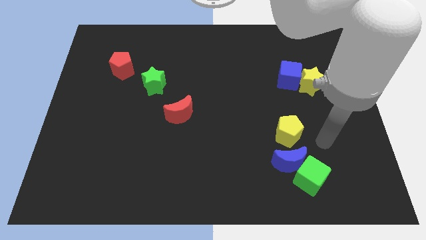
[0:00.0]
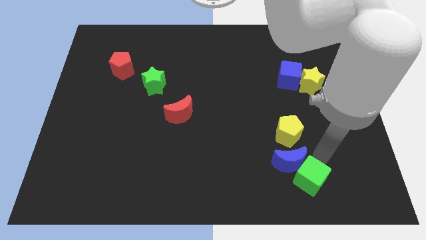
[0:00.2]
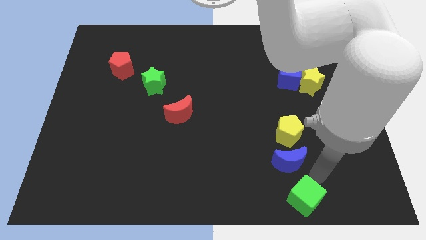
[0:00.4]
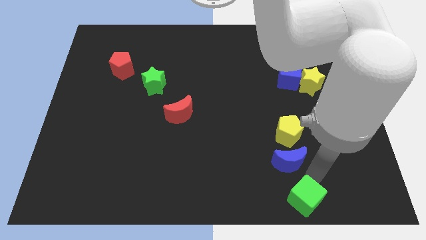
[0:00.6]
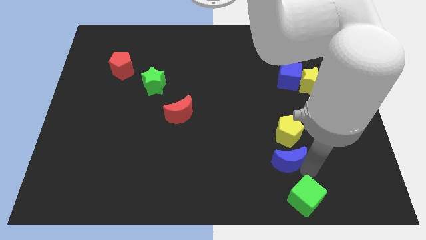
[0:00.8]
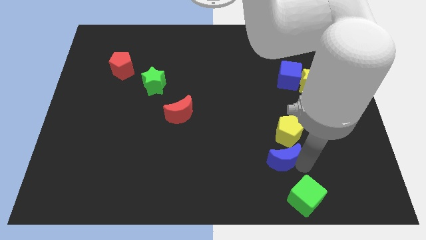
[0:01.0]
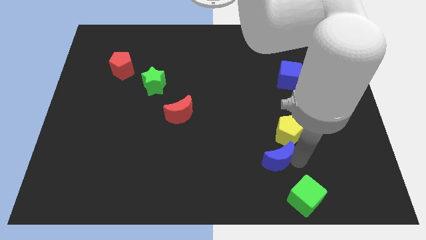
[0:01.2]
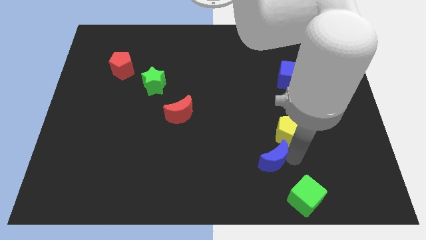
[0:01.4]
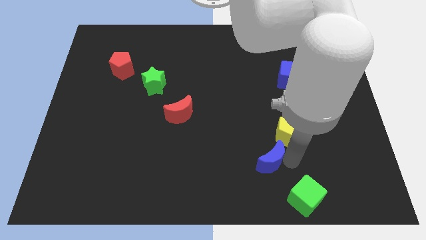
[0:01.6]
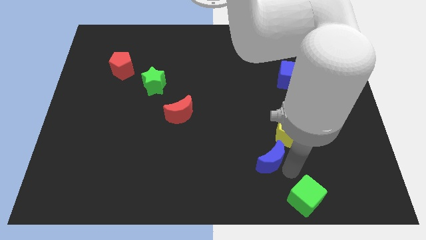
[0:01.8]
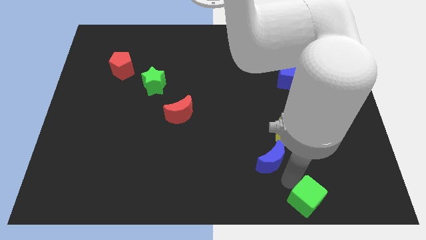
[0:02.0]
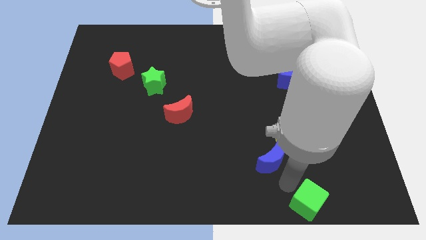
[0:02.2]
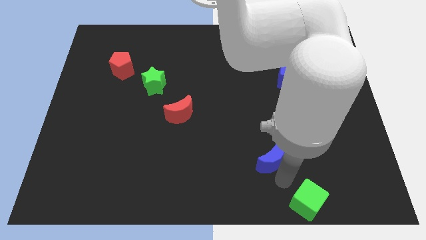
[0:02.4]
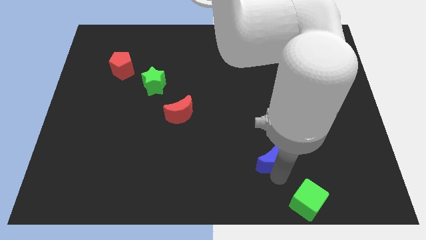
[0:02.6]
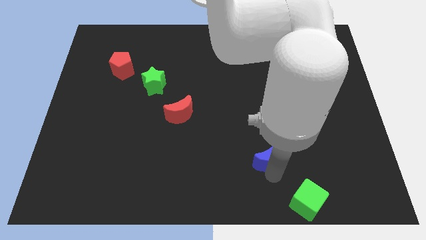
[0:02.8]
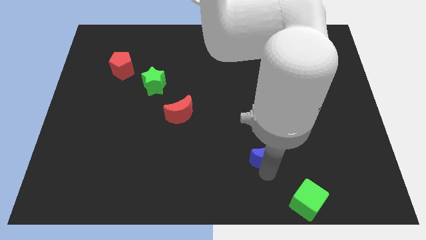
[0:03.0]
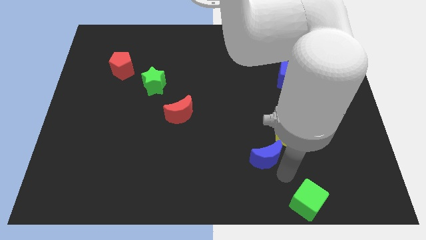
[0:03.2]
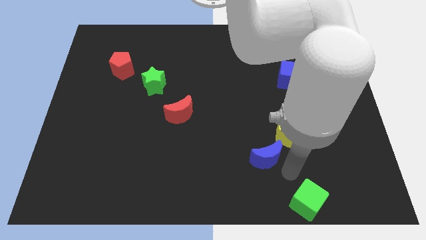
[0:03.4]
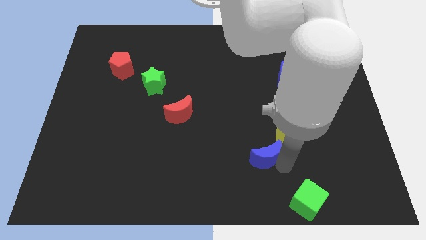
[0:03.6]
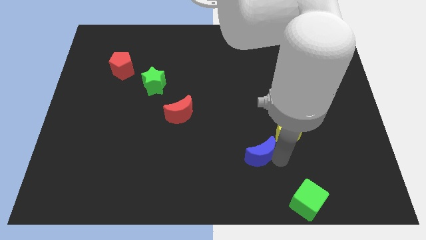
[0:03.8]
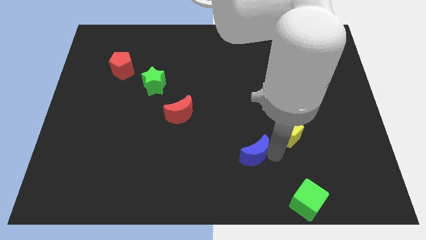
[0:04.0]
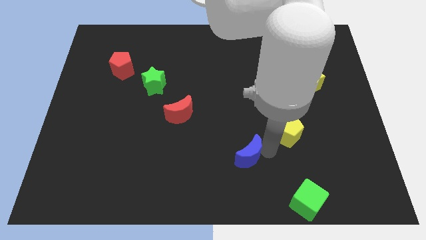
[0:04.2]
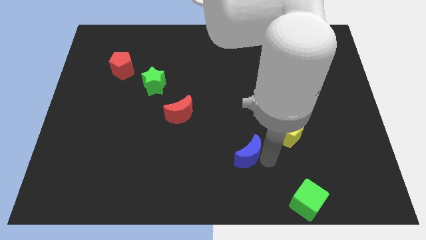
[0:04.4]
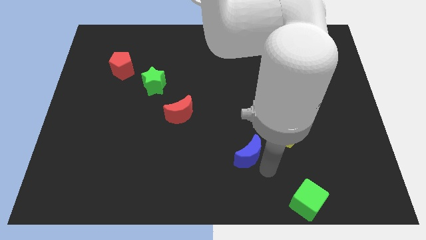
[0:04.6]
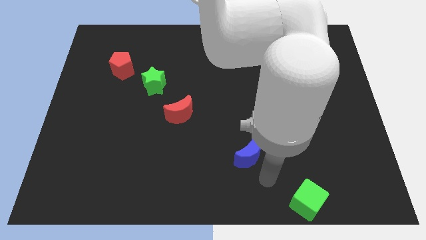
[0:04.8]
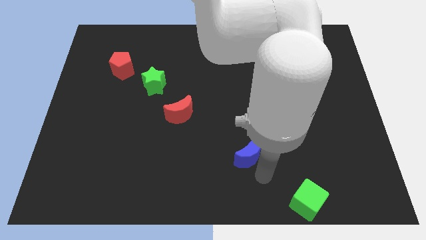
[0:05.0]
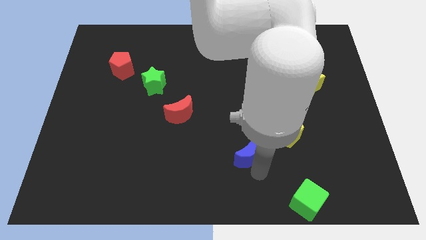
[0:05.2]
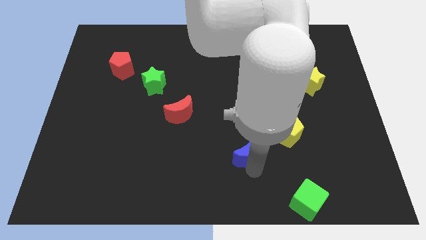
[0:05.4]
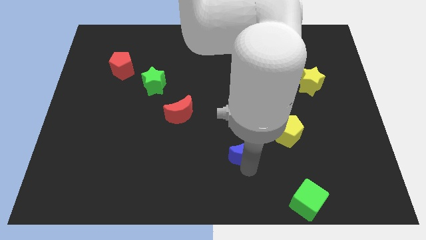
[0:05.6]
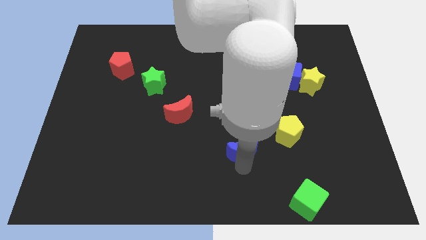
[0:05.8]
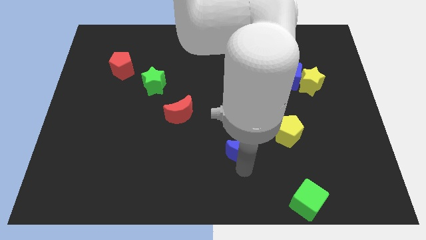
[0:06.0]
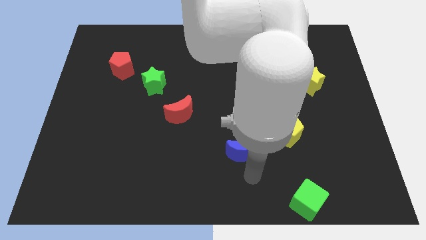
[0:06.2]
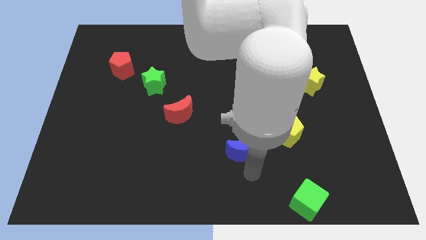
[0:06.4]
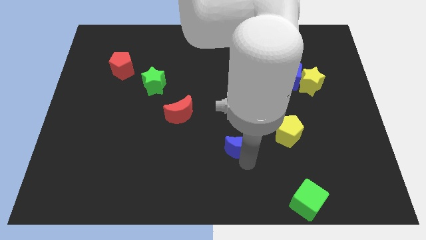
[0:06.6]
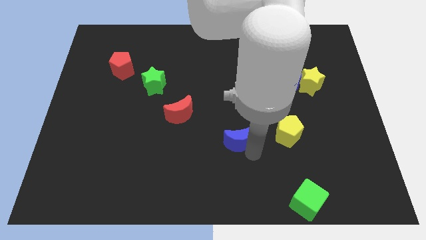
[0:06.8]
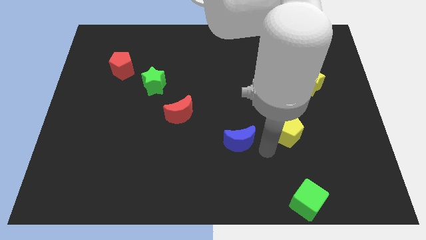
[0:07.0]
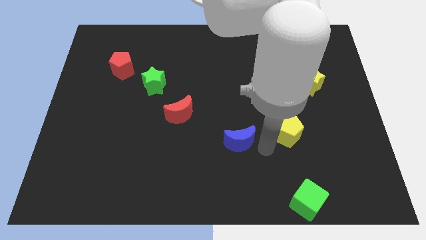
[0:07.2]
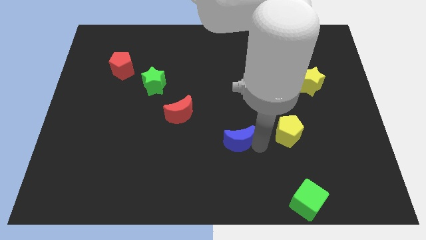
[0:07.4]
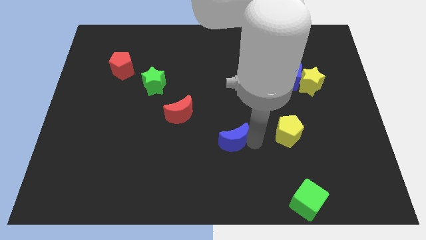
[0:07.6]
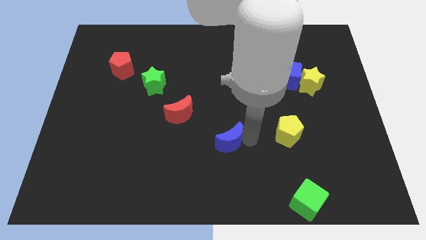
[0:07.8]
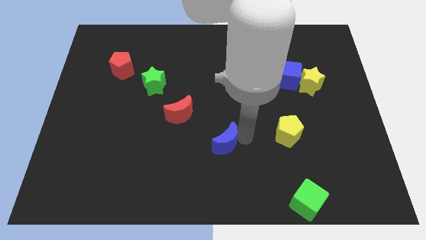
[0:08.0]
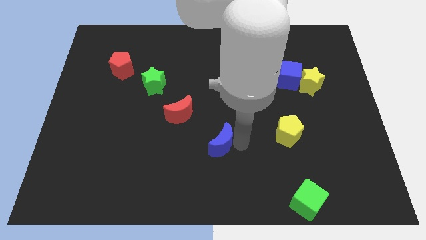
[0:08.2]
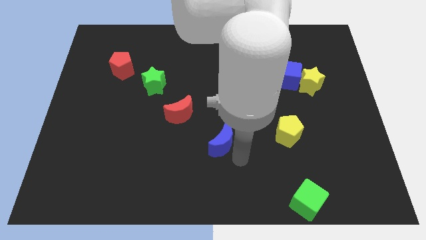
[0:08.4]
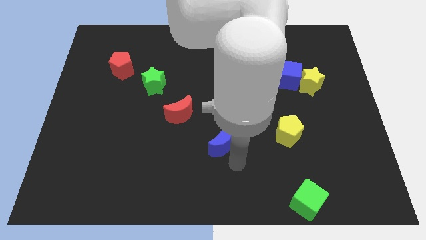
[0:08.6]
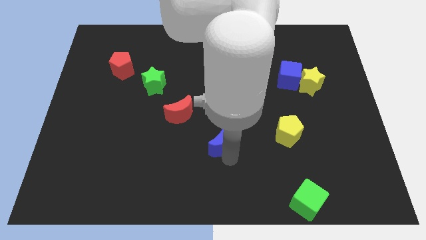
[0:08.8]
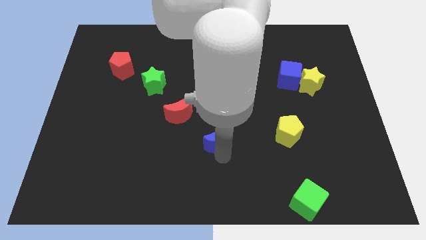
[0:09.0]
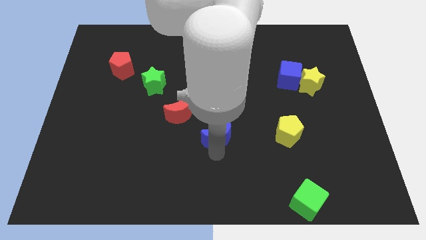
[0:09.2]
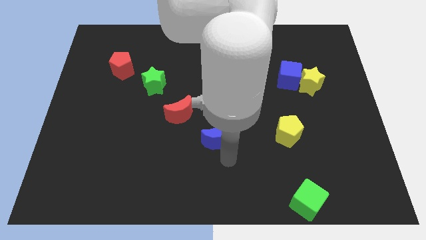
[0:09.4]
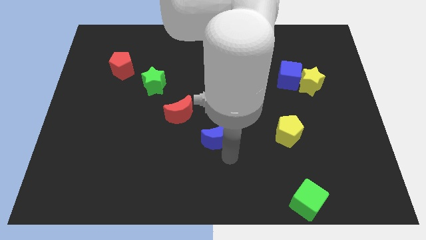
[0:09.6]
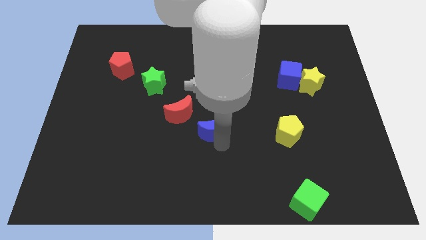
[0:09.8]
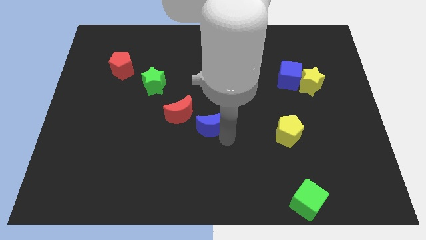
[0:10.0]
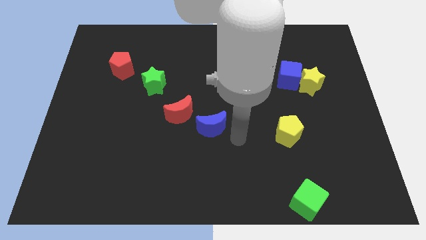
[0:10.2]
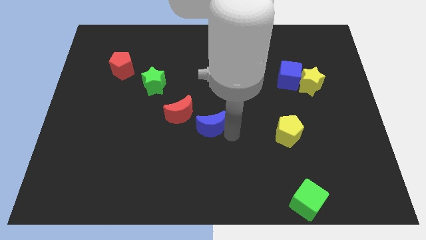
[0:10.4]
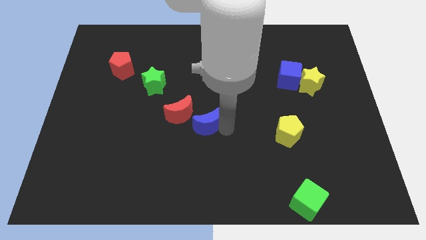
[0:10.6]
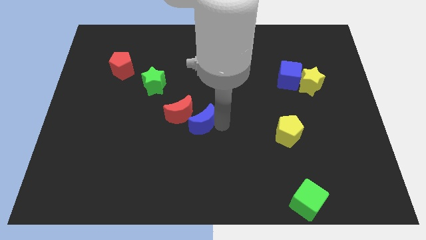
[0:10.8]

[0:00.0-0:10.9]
move the blue moon next to the red moon

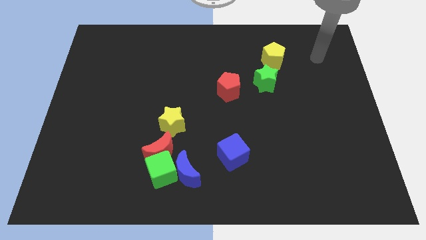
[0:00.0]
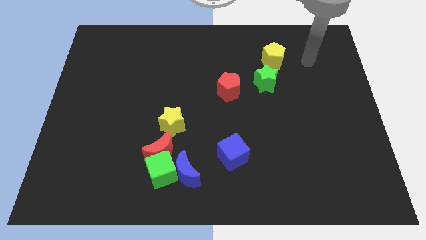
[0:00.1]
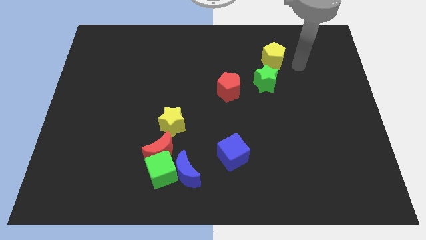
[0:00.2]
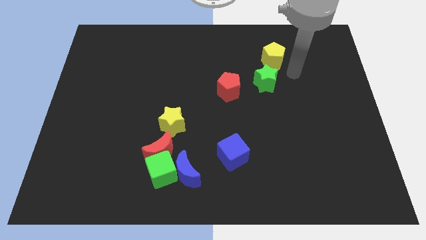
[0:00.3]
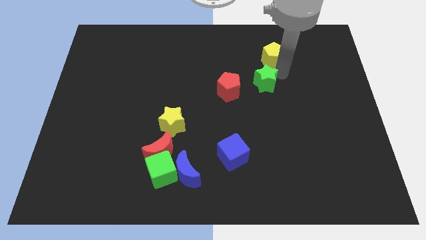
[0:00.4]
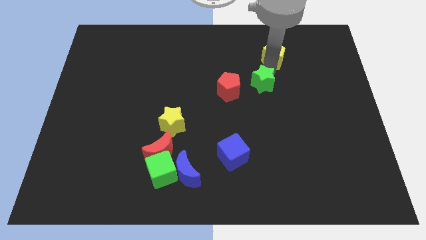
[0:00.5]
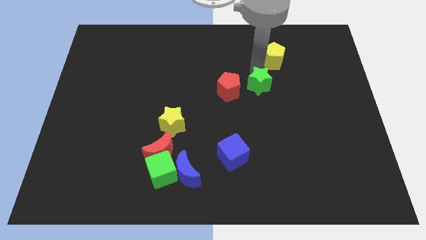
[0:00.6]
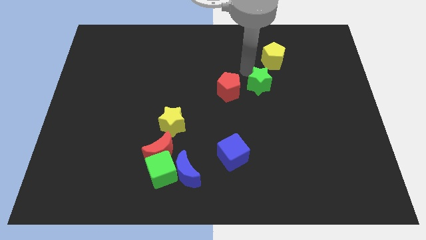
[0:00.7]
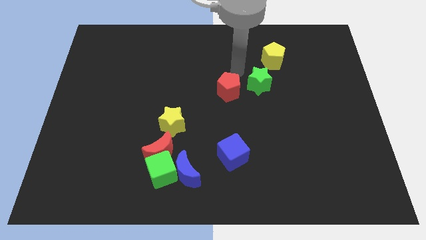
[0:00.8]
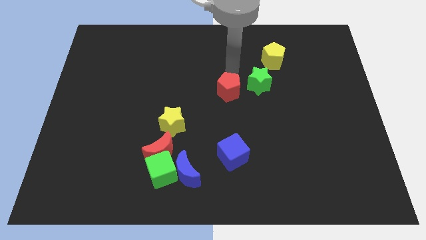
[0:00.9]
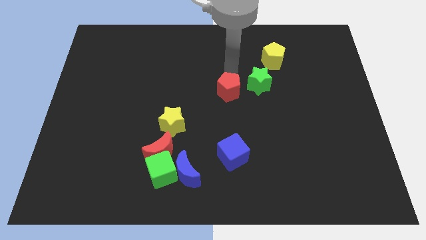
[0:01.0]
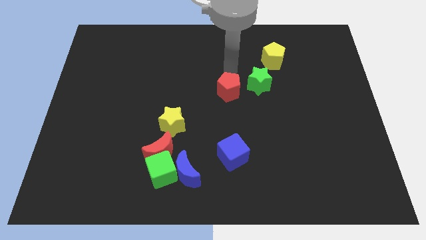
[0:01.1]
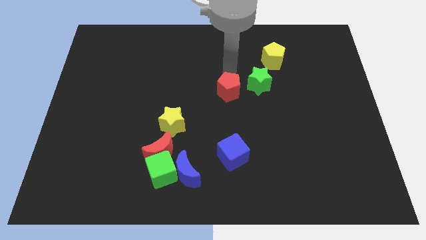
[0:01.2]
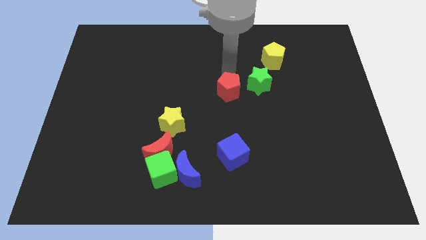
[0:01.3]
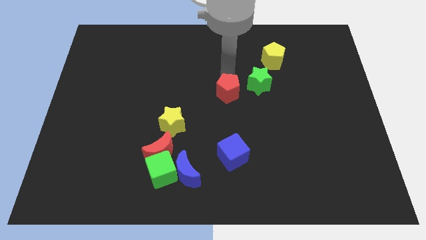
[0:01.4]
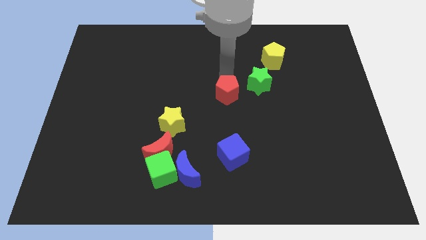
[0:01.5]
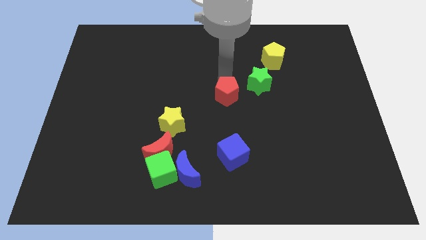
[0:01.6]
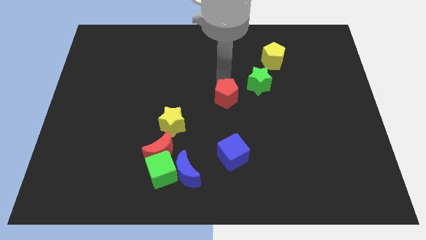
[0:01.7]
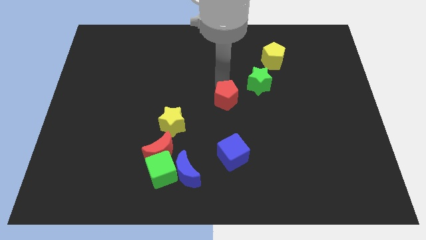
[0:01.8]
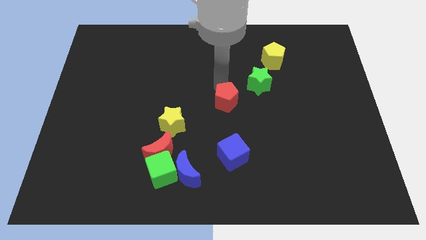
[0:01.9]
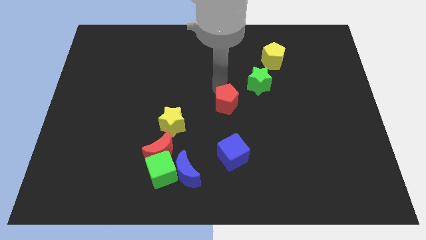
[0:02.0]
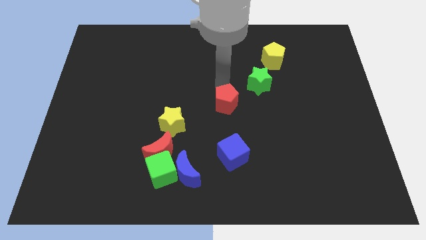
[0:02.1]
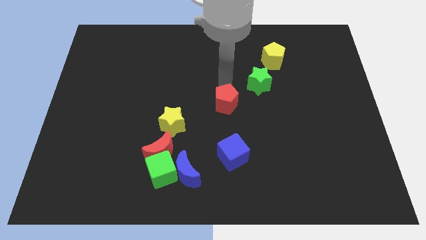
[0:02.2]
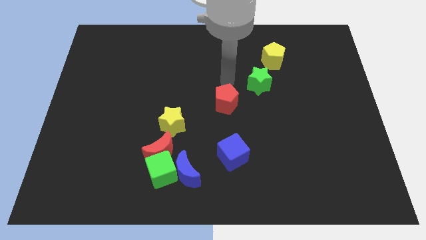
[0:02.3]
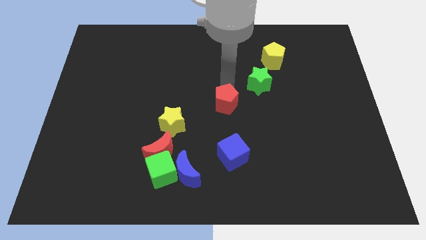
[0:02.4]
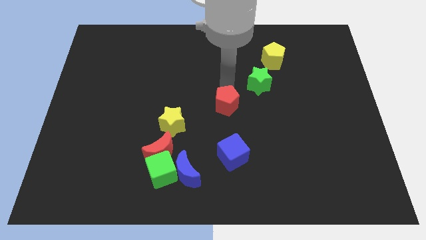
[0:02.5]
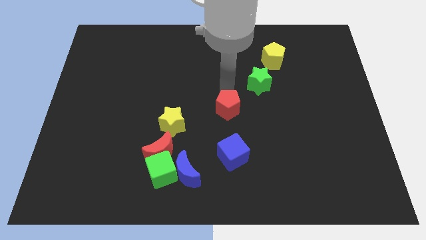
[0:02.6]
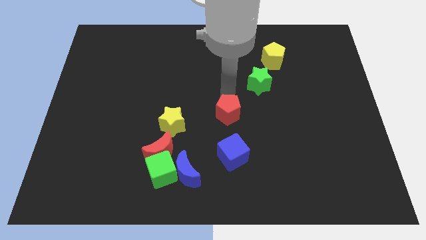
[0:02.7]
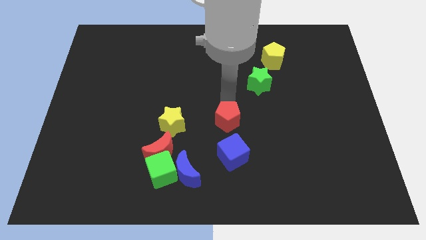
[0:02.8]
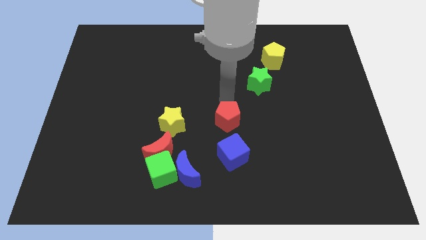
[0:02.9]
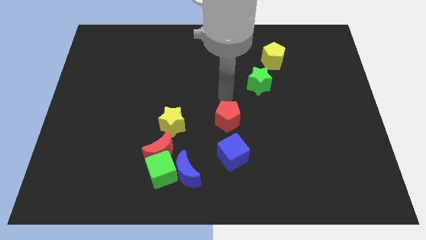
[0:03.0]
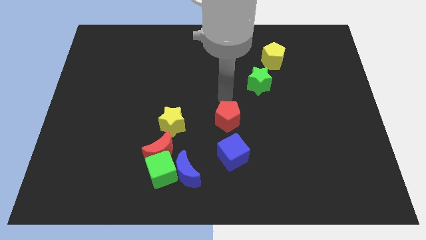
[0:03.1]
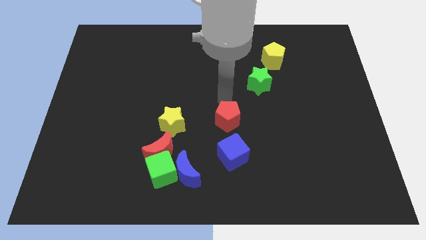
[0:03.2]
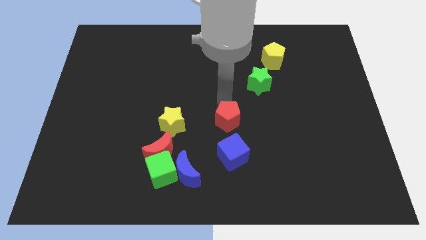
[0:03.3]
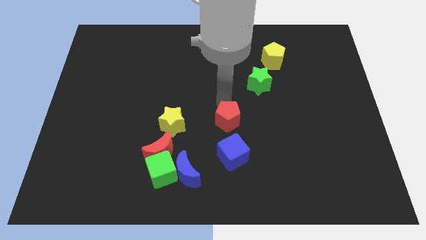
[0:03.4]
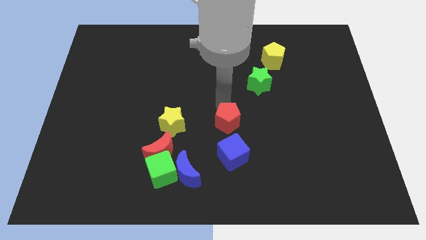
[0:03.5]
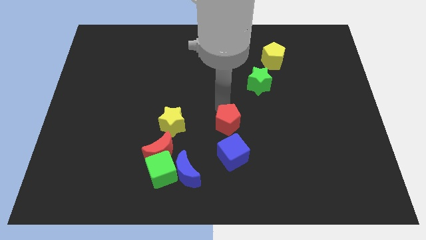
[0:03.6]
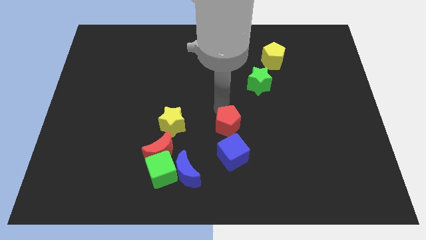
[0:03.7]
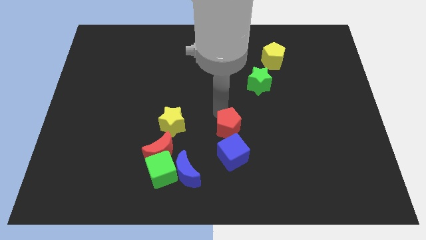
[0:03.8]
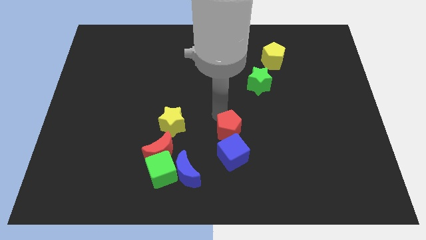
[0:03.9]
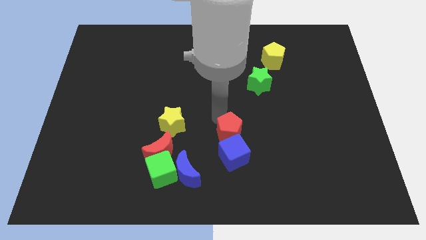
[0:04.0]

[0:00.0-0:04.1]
slide the red pentagon towards the blue cube
